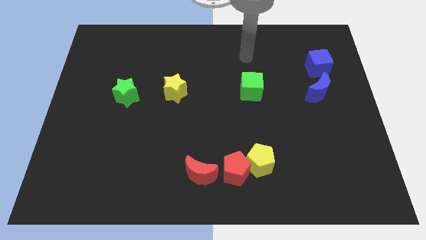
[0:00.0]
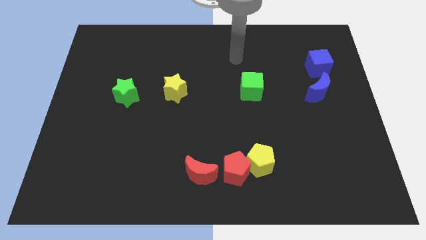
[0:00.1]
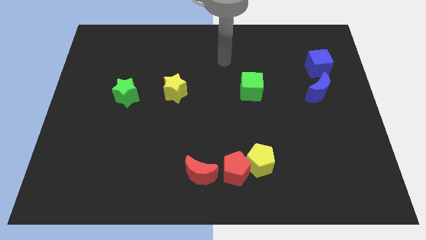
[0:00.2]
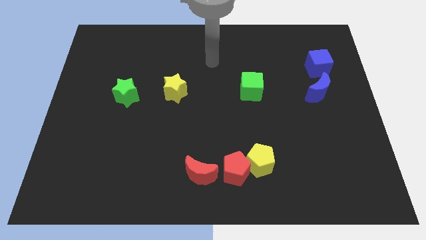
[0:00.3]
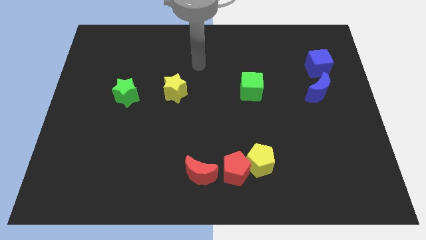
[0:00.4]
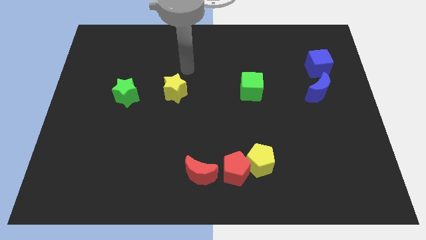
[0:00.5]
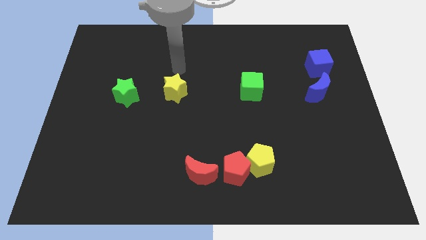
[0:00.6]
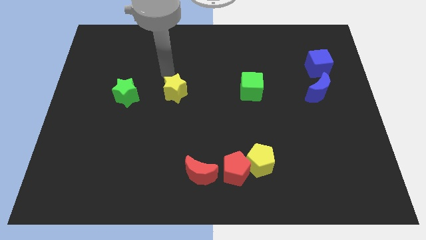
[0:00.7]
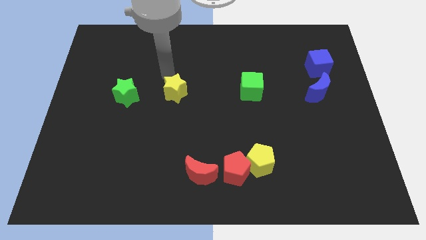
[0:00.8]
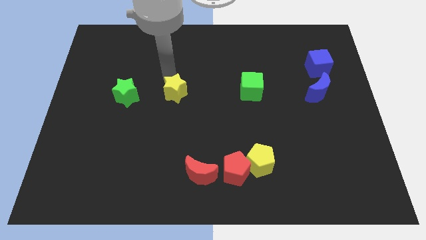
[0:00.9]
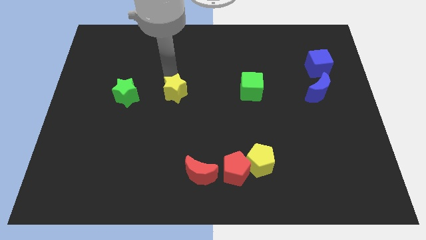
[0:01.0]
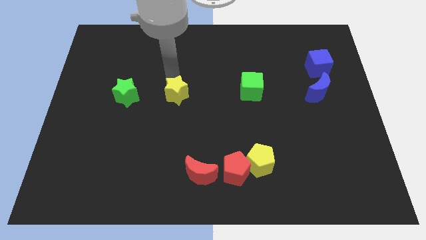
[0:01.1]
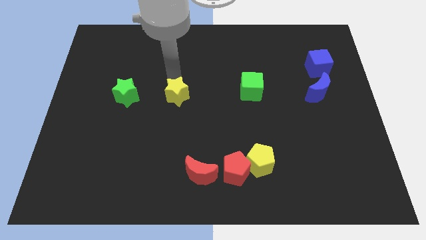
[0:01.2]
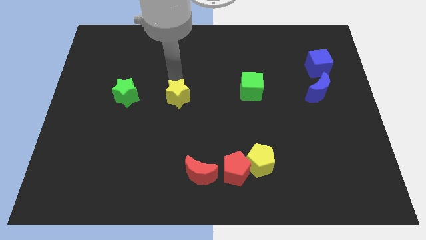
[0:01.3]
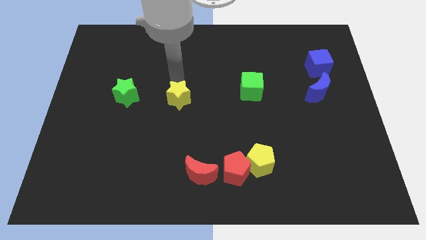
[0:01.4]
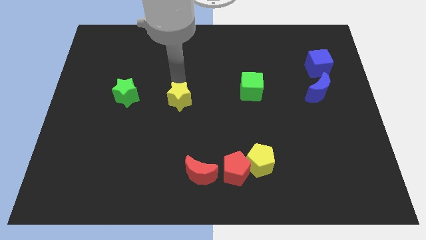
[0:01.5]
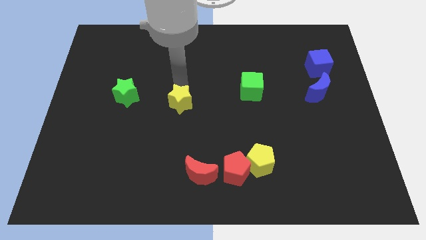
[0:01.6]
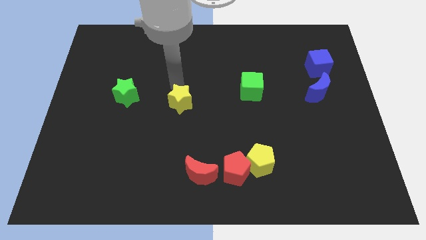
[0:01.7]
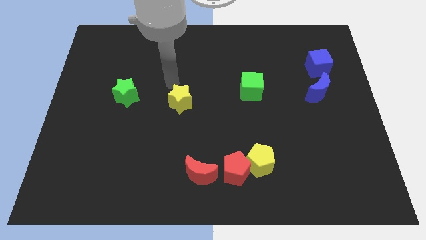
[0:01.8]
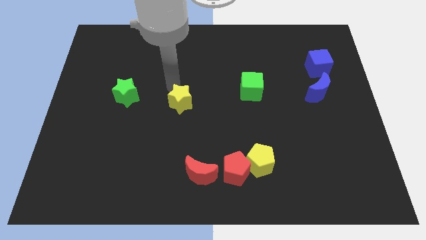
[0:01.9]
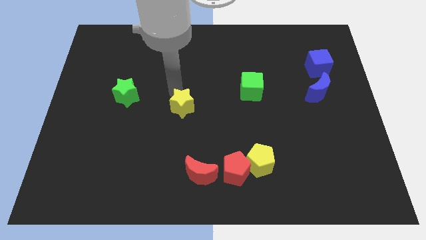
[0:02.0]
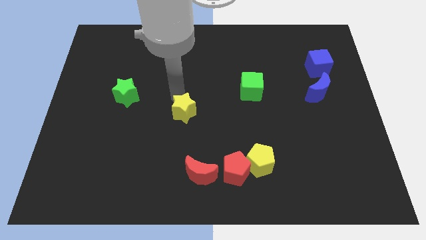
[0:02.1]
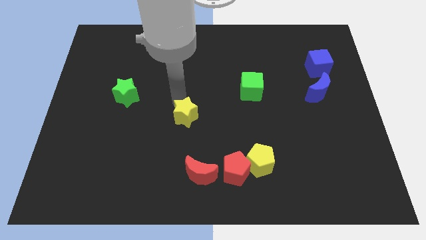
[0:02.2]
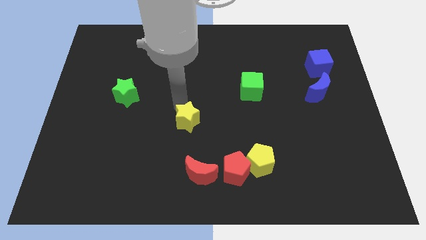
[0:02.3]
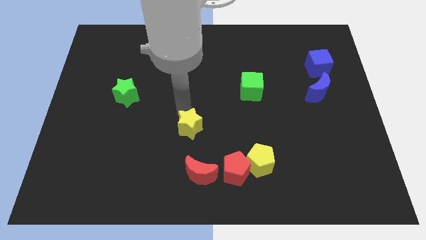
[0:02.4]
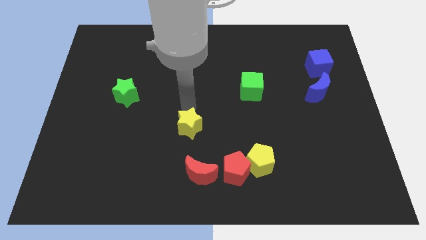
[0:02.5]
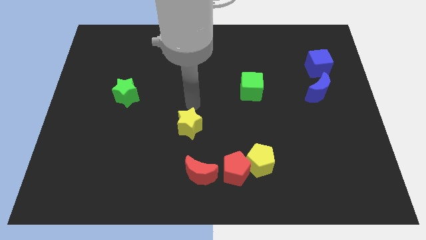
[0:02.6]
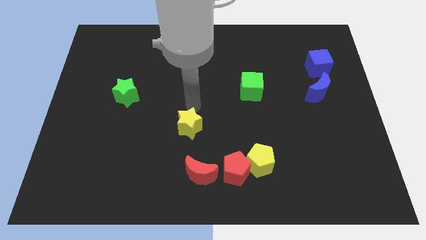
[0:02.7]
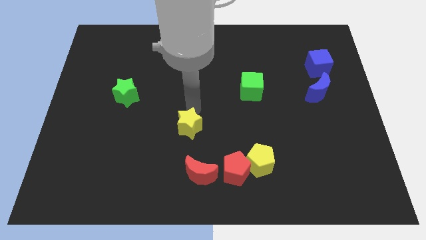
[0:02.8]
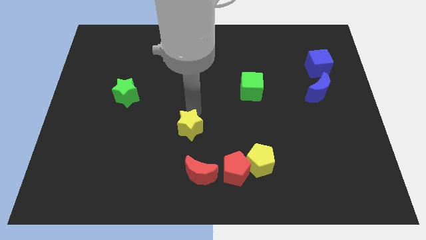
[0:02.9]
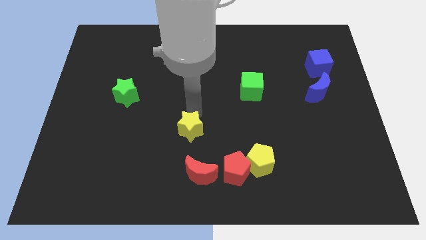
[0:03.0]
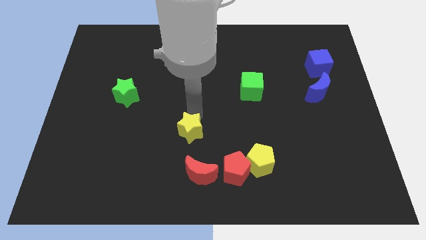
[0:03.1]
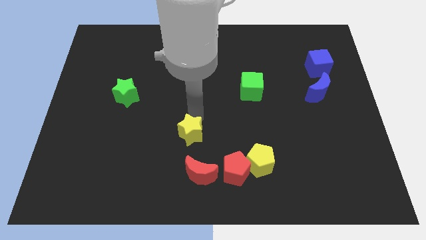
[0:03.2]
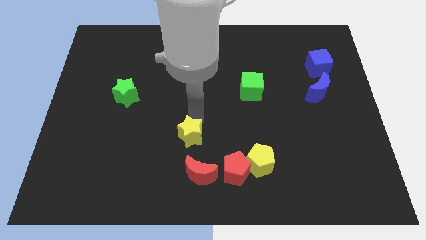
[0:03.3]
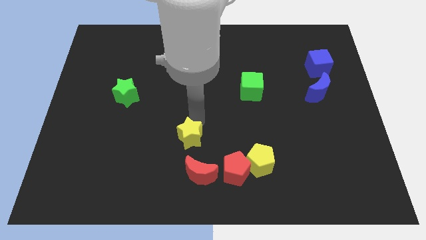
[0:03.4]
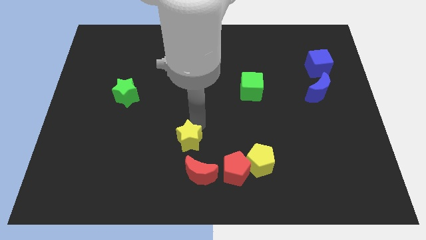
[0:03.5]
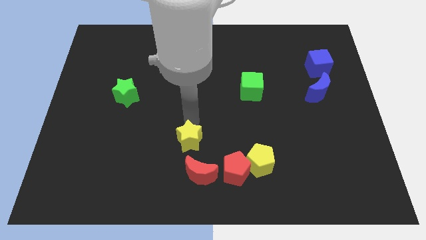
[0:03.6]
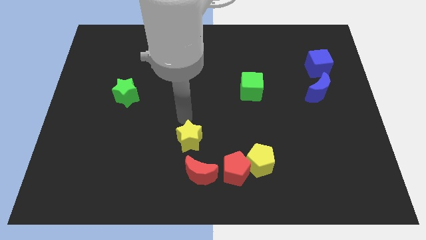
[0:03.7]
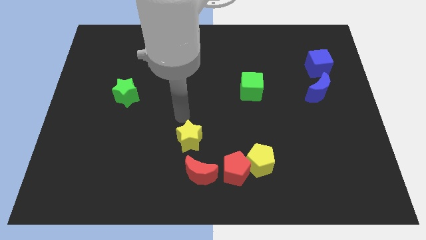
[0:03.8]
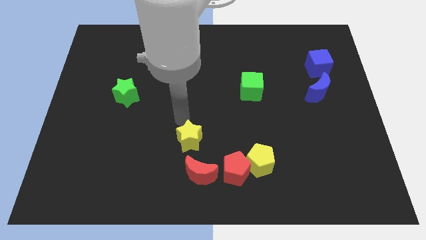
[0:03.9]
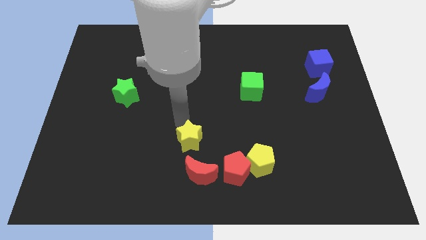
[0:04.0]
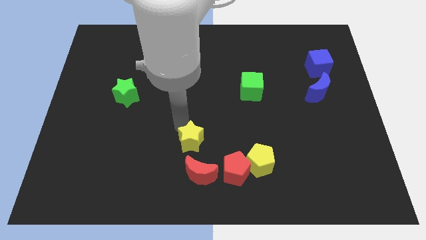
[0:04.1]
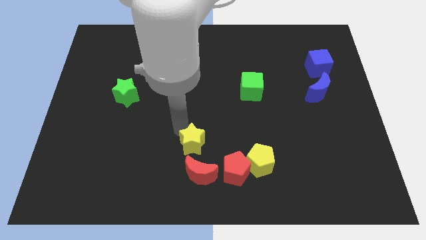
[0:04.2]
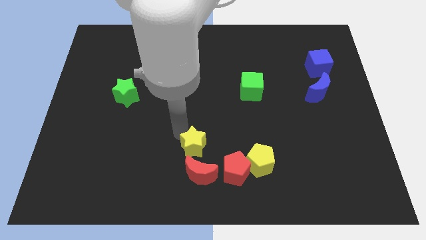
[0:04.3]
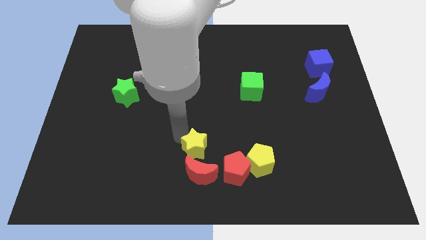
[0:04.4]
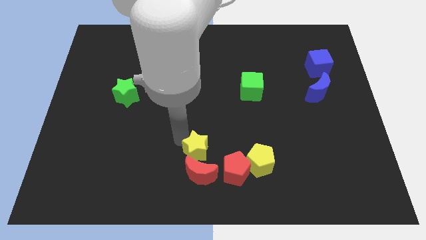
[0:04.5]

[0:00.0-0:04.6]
slide the yellow star towards the red moon

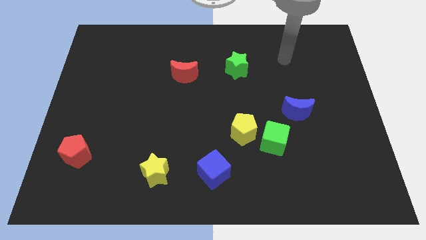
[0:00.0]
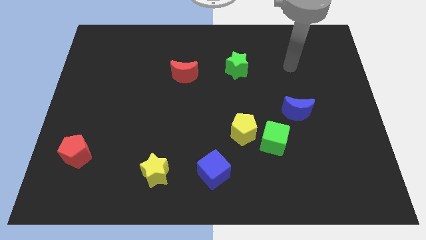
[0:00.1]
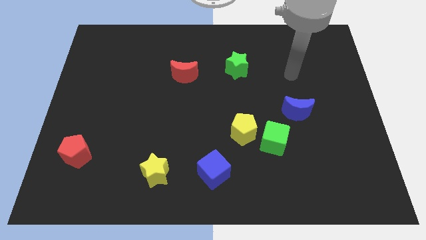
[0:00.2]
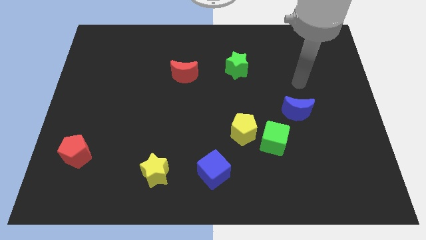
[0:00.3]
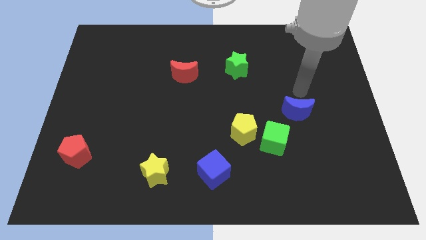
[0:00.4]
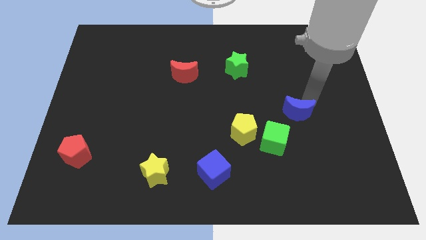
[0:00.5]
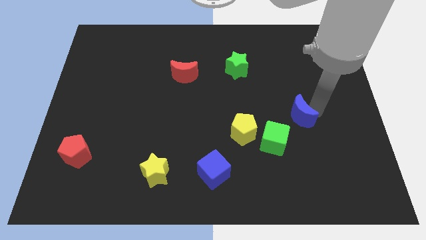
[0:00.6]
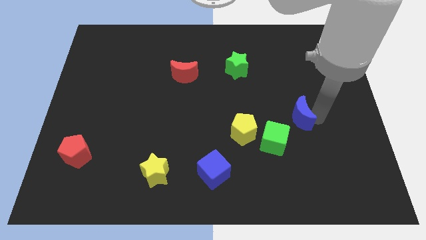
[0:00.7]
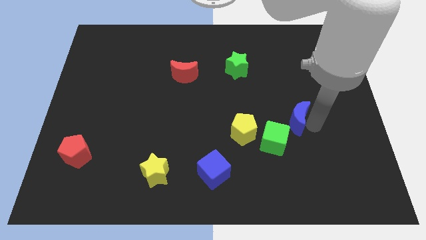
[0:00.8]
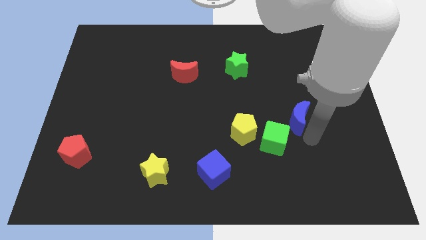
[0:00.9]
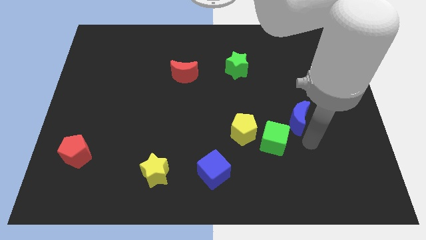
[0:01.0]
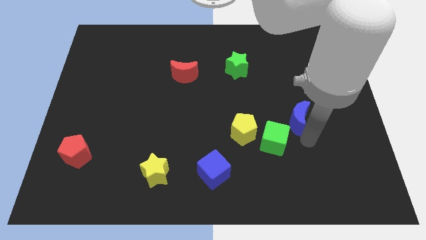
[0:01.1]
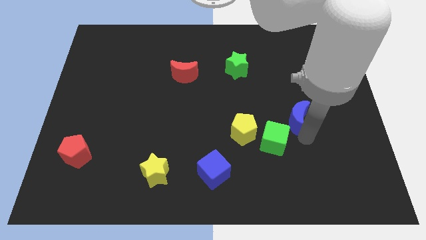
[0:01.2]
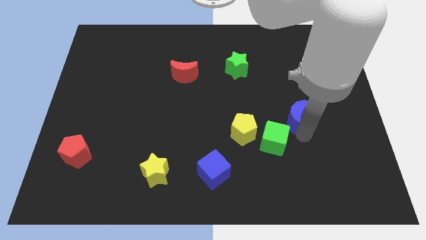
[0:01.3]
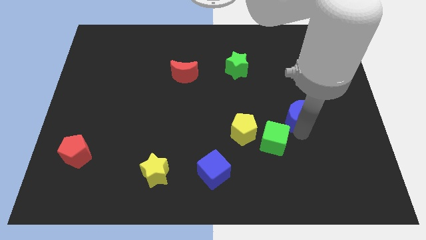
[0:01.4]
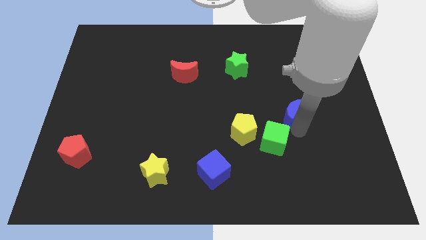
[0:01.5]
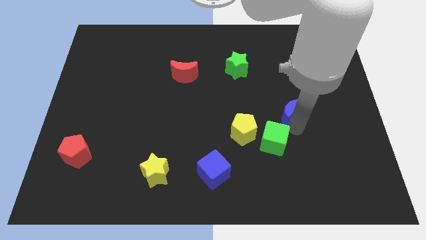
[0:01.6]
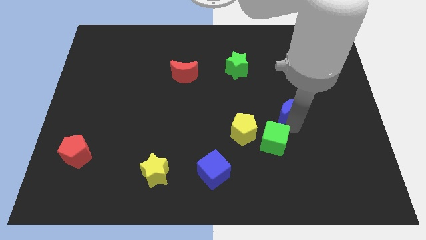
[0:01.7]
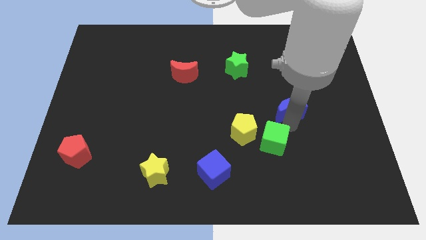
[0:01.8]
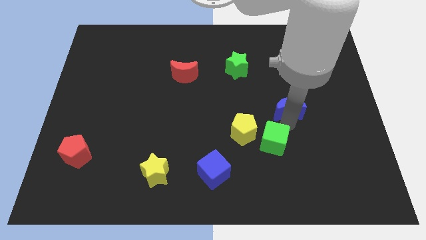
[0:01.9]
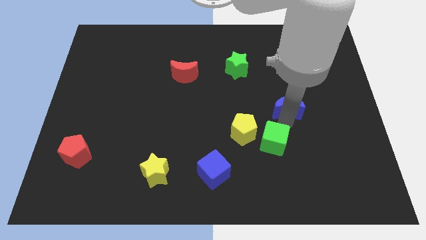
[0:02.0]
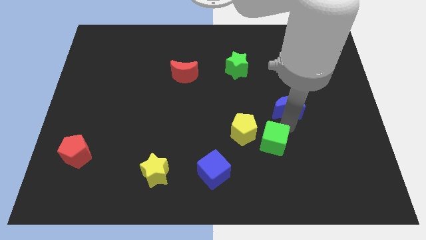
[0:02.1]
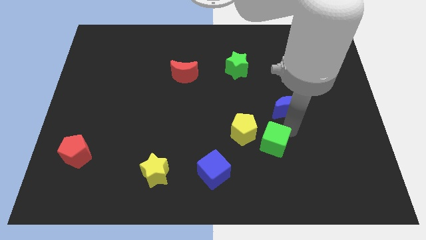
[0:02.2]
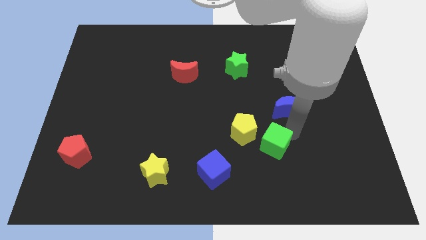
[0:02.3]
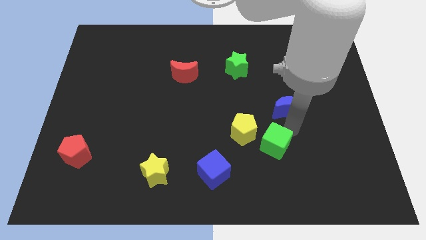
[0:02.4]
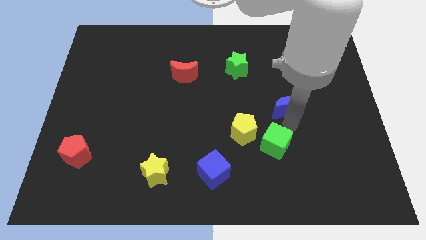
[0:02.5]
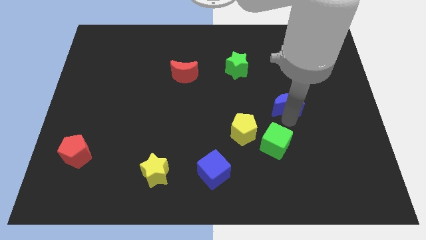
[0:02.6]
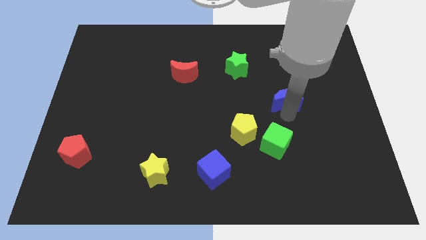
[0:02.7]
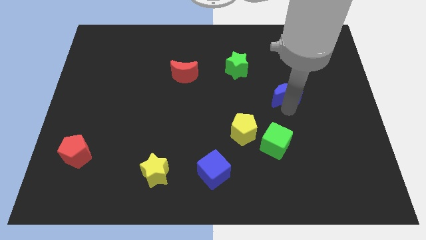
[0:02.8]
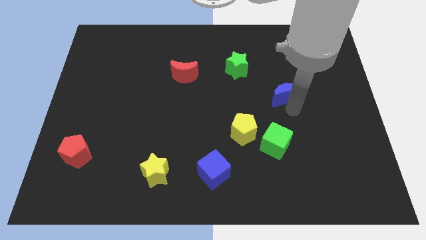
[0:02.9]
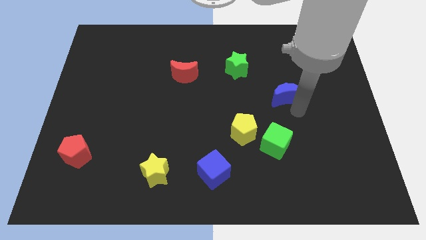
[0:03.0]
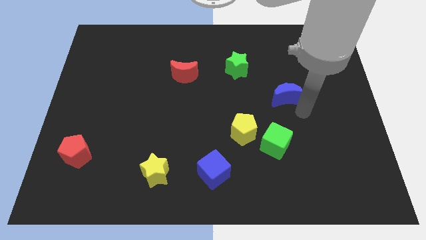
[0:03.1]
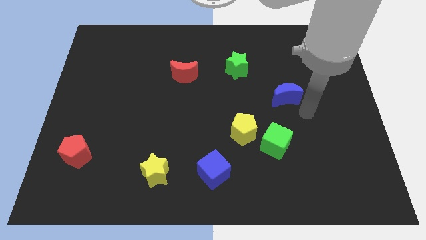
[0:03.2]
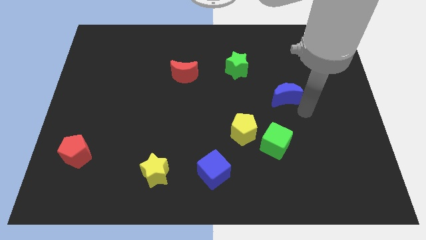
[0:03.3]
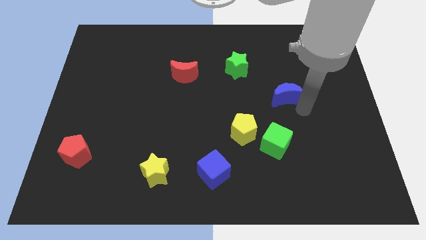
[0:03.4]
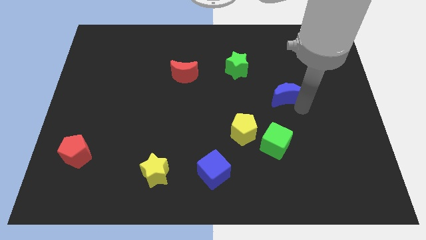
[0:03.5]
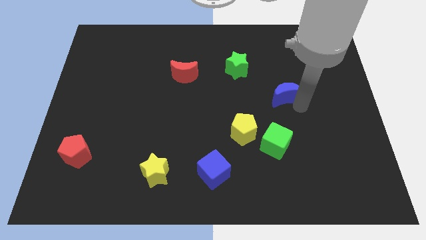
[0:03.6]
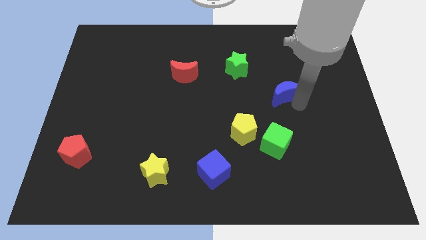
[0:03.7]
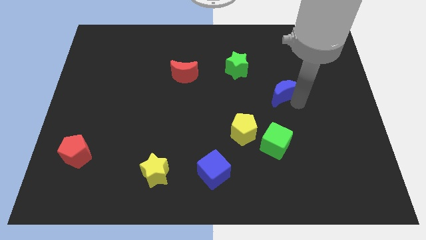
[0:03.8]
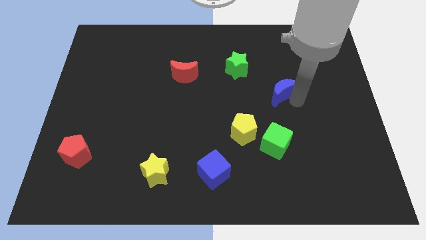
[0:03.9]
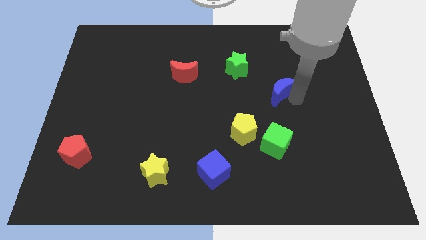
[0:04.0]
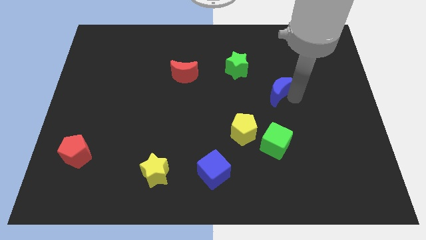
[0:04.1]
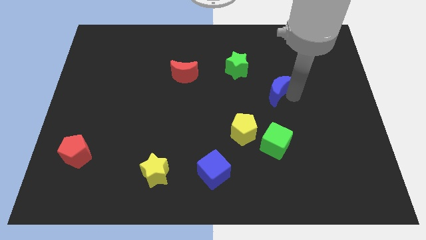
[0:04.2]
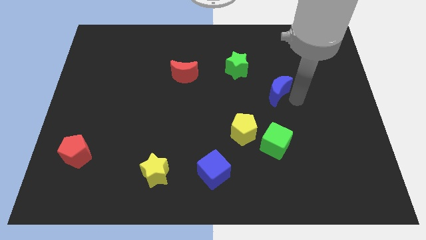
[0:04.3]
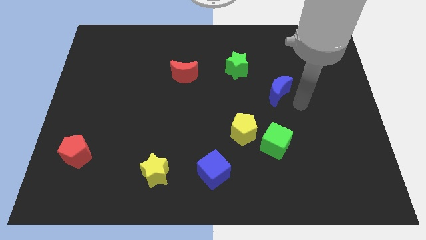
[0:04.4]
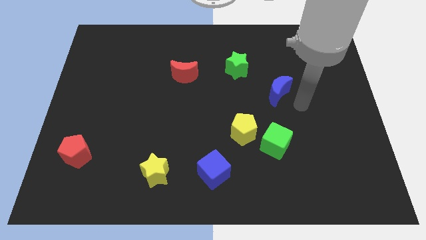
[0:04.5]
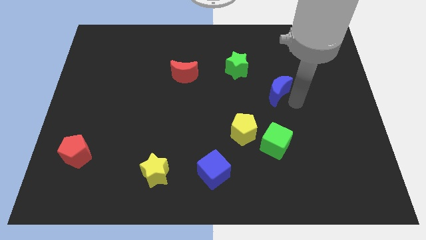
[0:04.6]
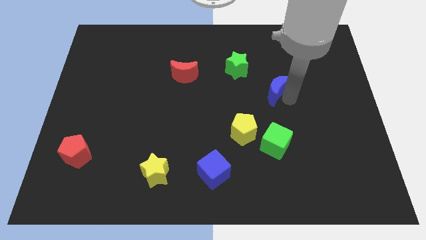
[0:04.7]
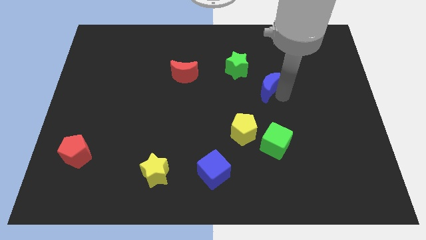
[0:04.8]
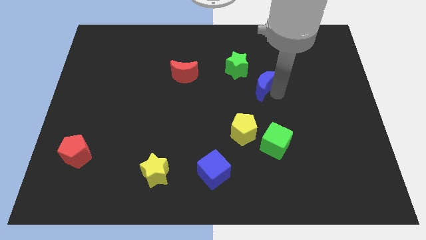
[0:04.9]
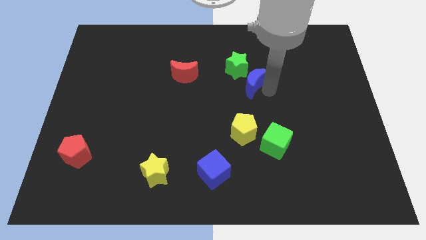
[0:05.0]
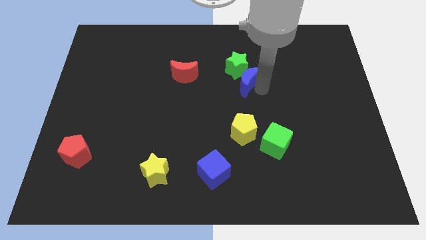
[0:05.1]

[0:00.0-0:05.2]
push the blue moon close to the green star
